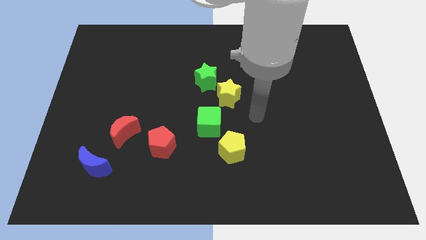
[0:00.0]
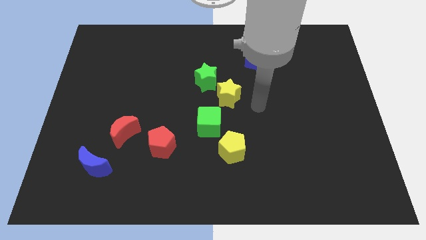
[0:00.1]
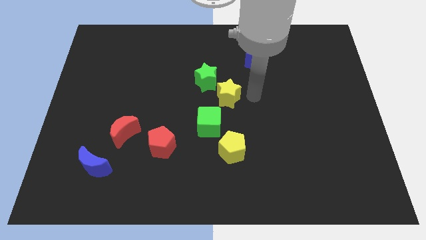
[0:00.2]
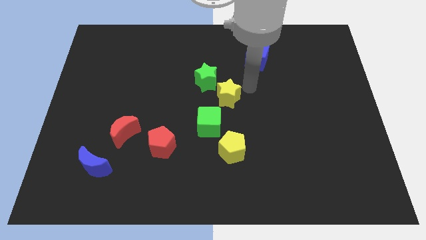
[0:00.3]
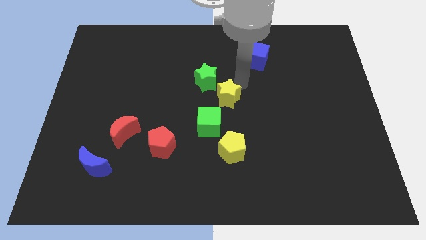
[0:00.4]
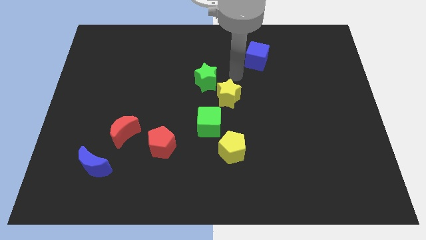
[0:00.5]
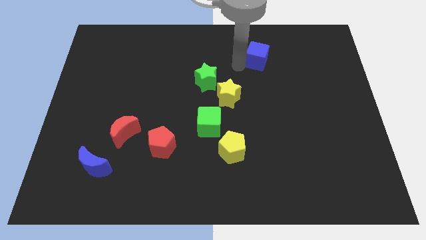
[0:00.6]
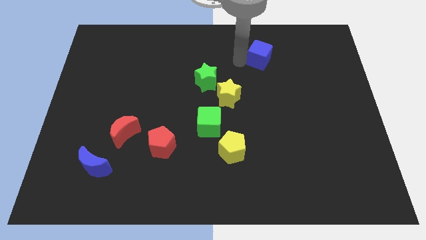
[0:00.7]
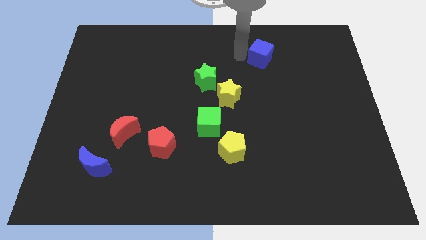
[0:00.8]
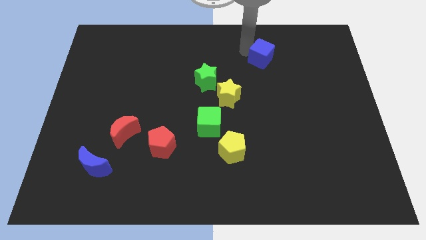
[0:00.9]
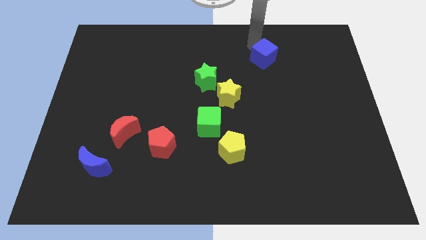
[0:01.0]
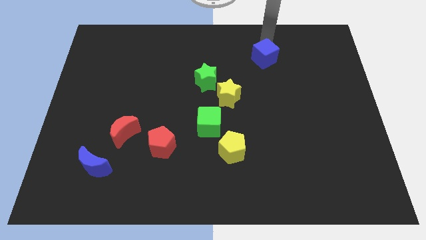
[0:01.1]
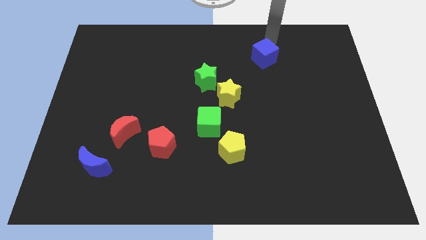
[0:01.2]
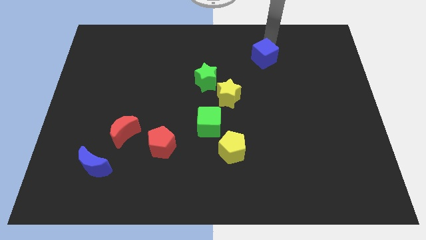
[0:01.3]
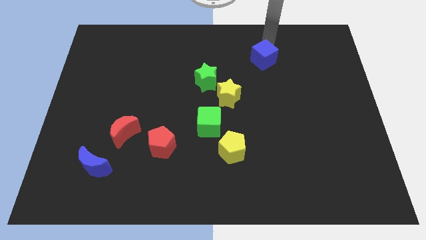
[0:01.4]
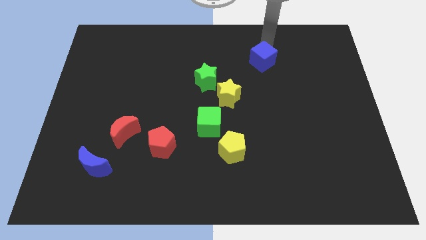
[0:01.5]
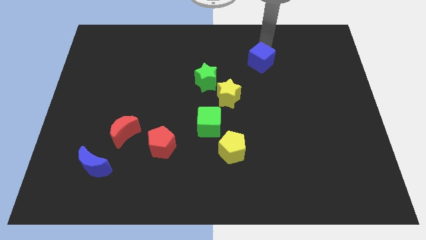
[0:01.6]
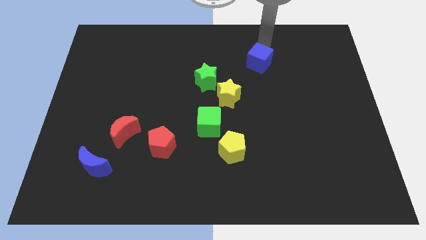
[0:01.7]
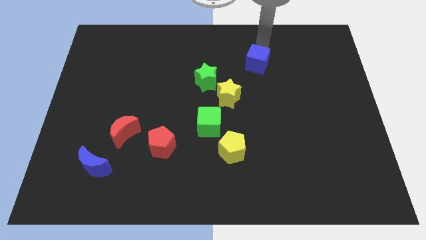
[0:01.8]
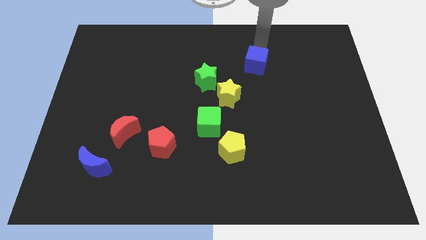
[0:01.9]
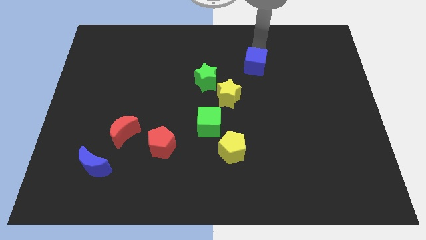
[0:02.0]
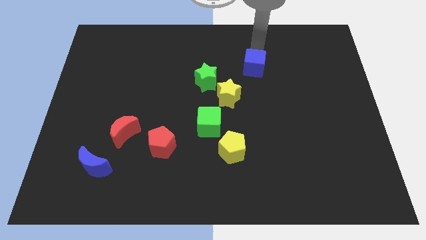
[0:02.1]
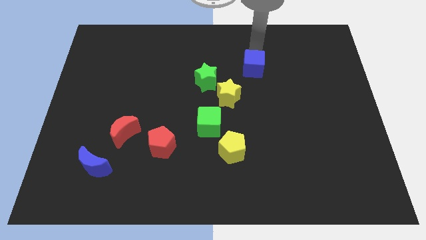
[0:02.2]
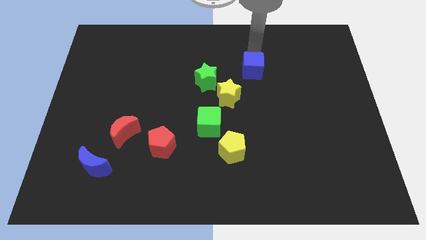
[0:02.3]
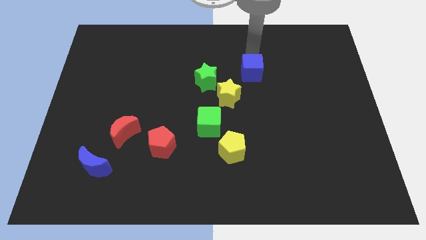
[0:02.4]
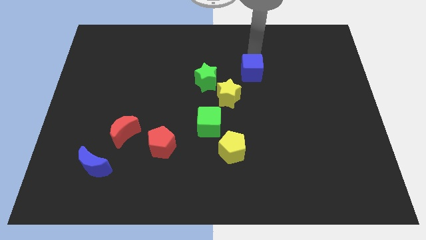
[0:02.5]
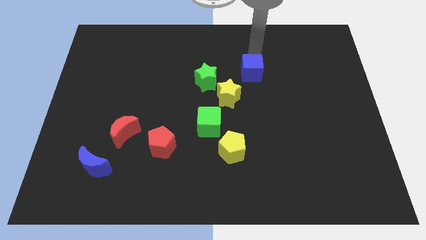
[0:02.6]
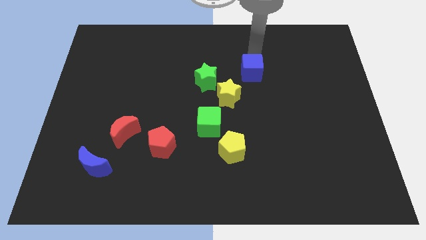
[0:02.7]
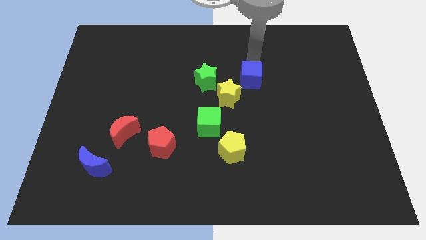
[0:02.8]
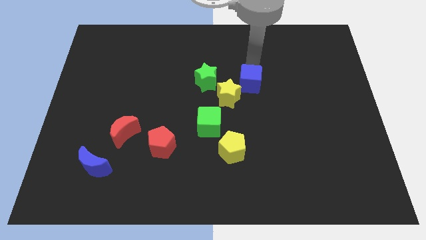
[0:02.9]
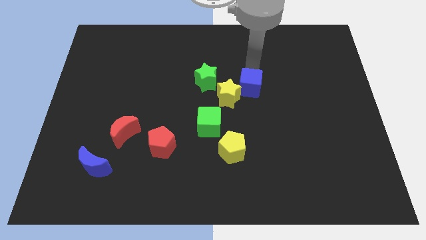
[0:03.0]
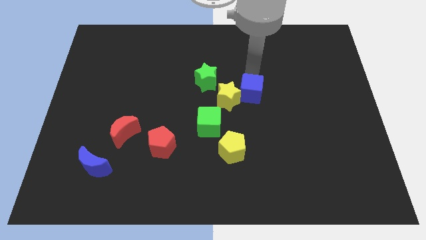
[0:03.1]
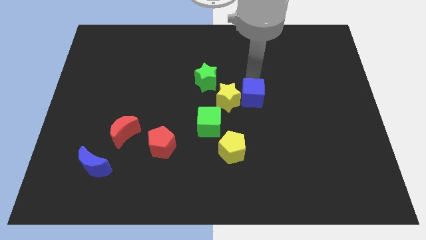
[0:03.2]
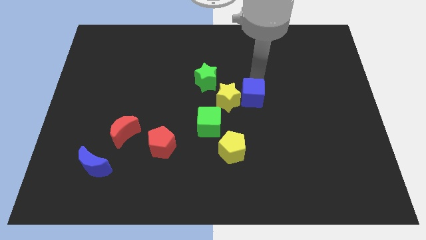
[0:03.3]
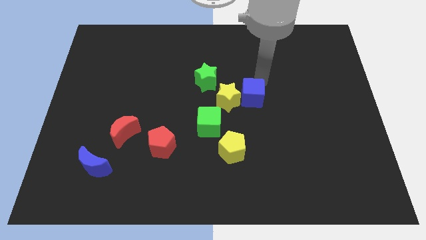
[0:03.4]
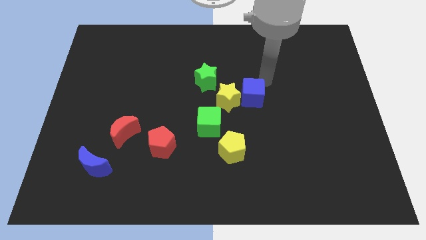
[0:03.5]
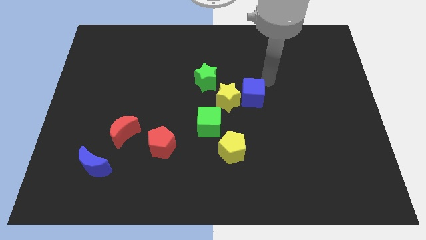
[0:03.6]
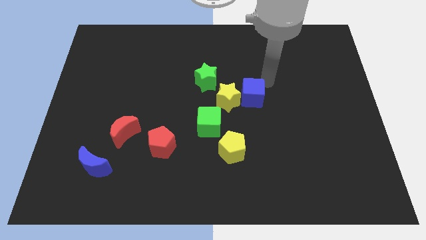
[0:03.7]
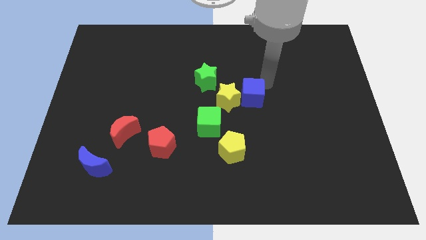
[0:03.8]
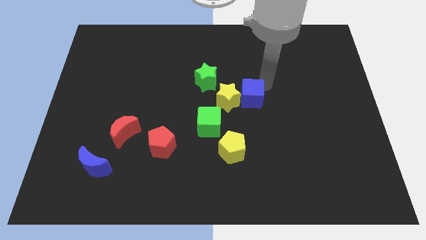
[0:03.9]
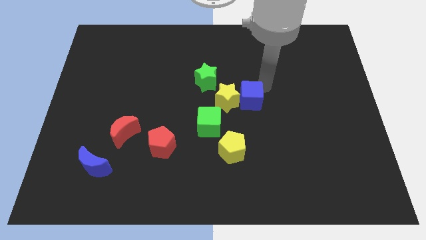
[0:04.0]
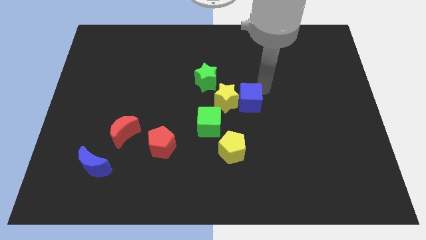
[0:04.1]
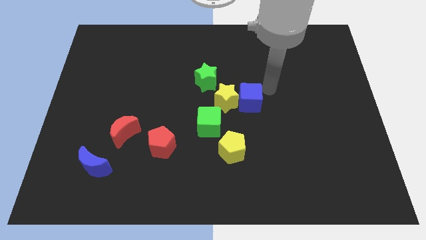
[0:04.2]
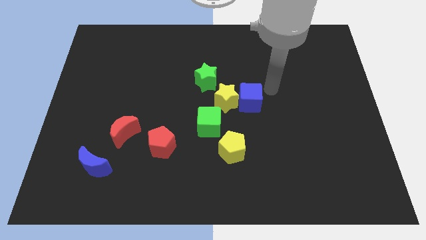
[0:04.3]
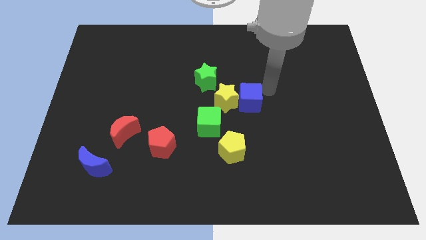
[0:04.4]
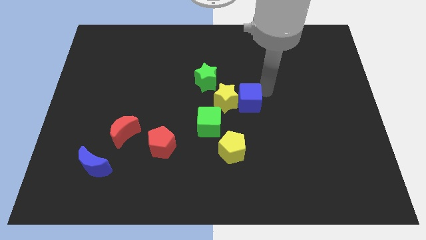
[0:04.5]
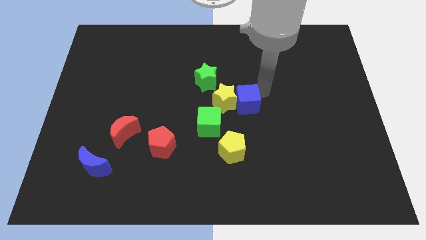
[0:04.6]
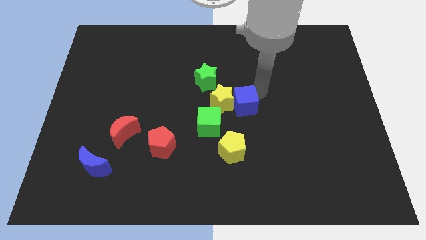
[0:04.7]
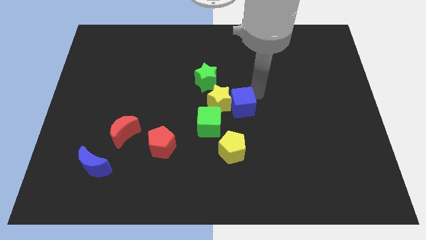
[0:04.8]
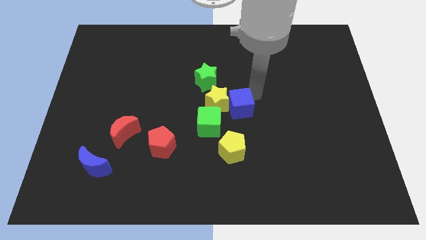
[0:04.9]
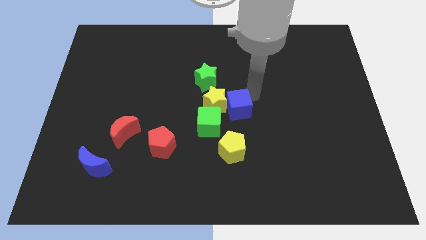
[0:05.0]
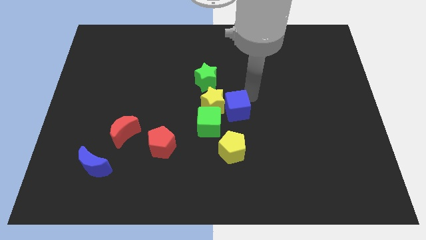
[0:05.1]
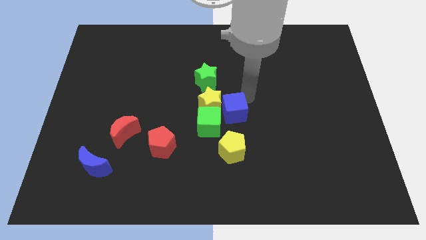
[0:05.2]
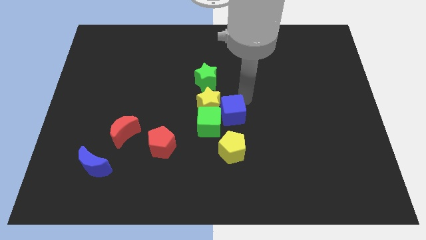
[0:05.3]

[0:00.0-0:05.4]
move the blue cube close to the green cube

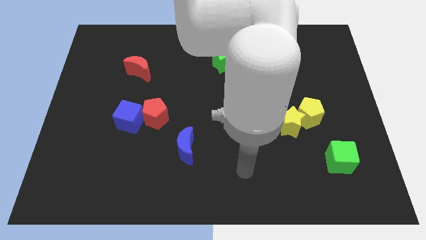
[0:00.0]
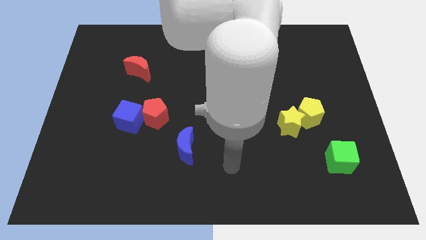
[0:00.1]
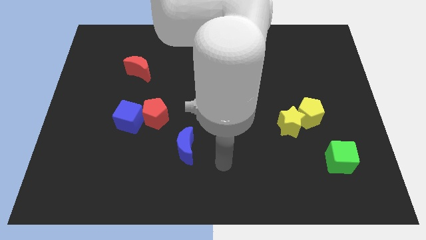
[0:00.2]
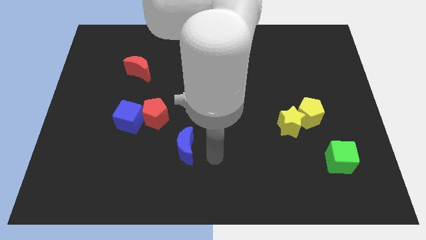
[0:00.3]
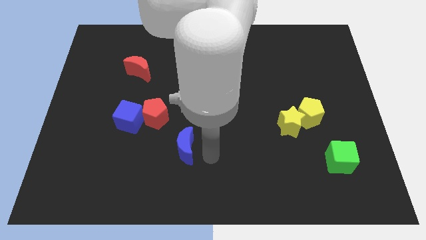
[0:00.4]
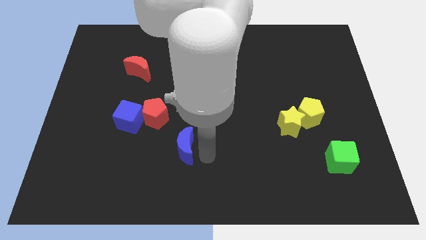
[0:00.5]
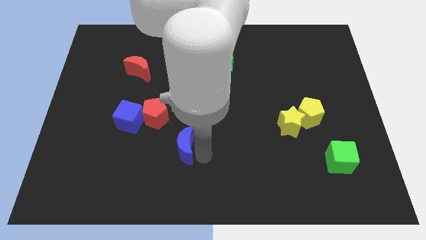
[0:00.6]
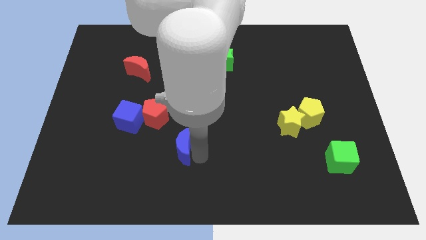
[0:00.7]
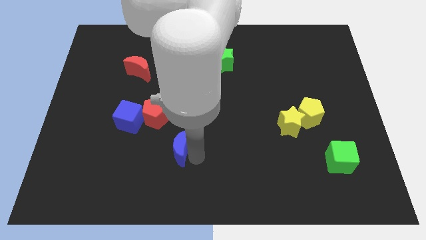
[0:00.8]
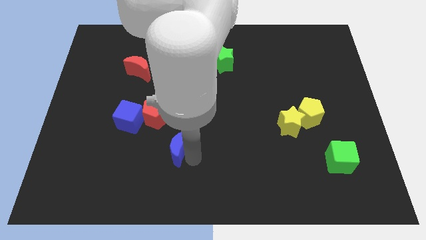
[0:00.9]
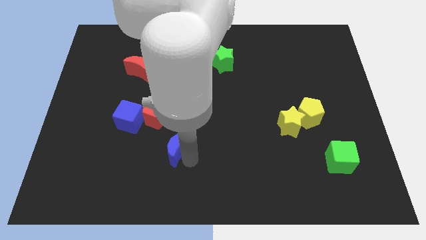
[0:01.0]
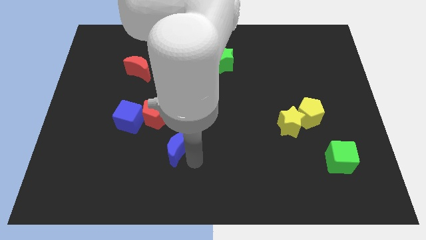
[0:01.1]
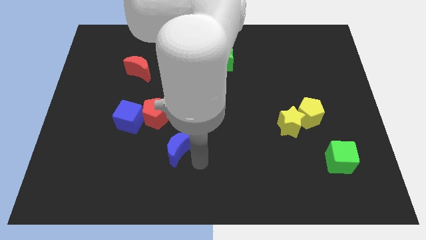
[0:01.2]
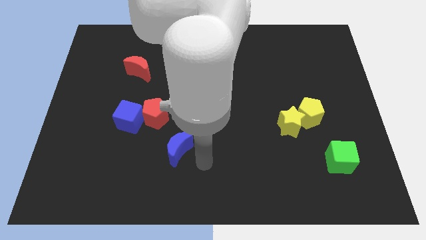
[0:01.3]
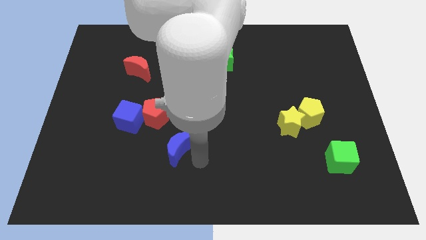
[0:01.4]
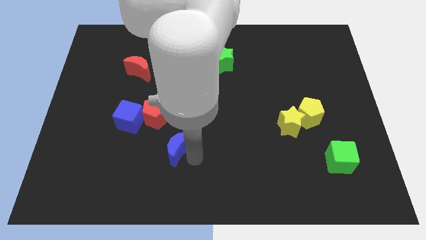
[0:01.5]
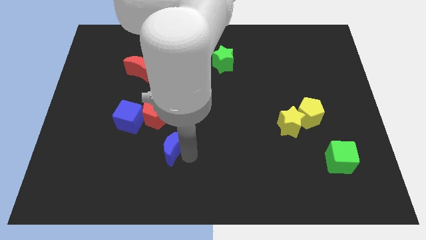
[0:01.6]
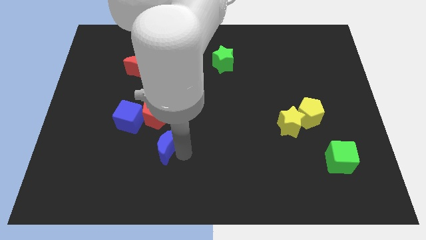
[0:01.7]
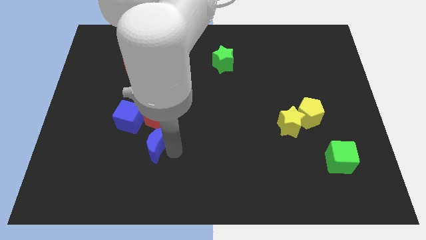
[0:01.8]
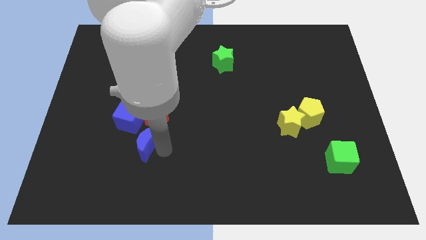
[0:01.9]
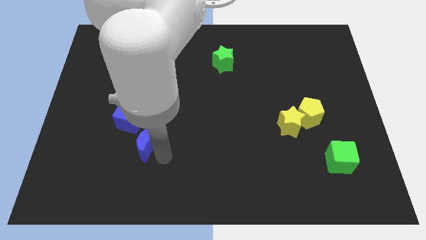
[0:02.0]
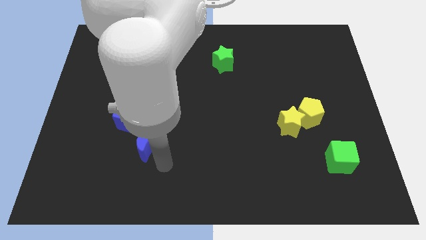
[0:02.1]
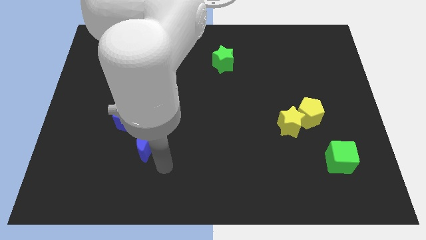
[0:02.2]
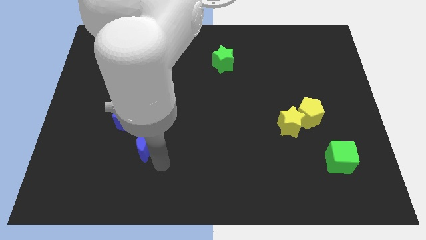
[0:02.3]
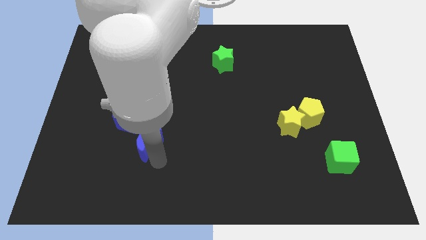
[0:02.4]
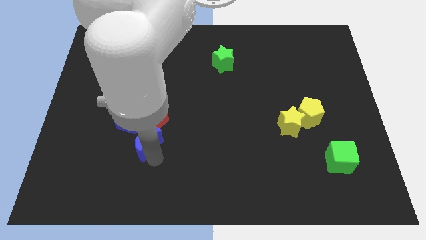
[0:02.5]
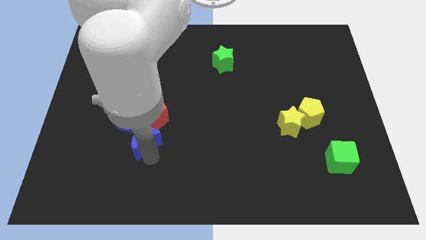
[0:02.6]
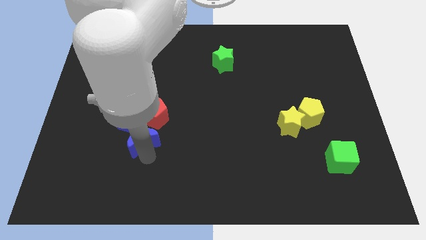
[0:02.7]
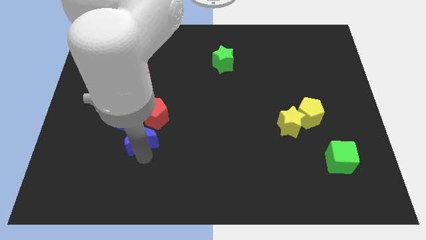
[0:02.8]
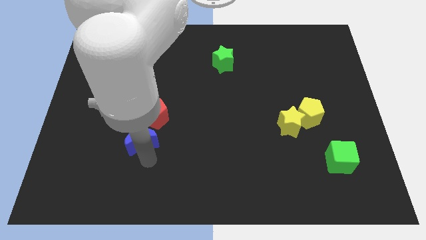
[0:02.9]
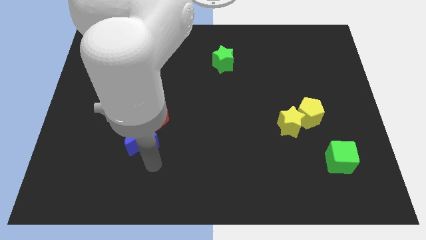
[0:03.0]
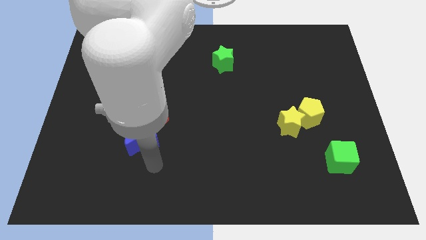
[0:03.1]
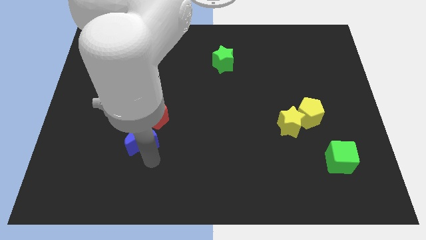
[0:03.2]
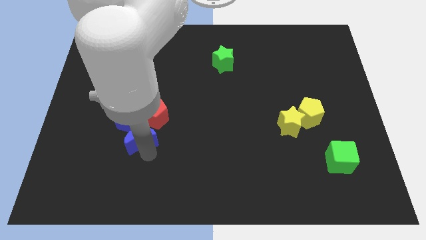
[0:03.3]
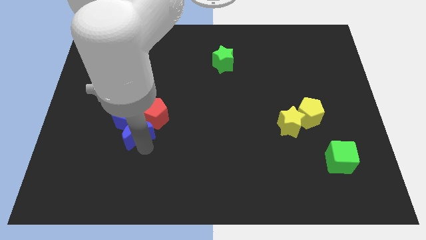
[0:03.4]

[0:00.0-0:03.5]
push the blue moon close to the blue cube
